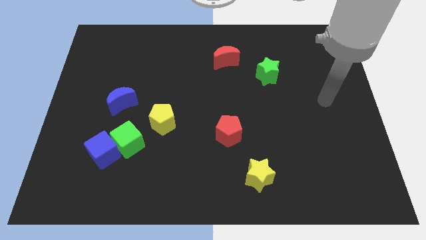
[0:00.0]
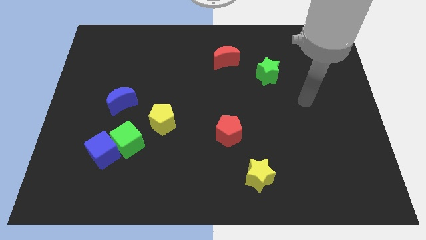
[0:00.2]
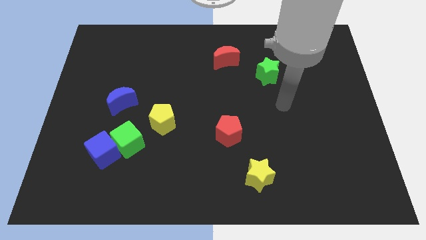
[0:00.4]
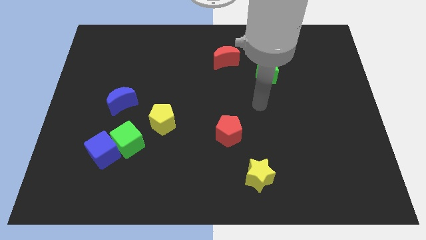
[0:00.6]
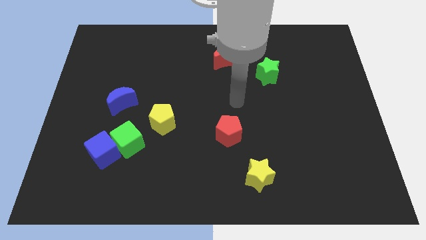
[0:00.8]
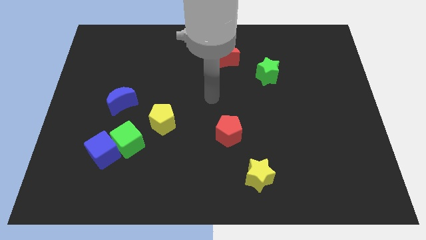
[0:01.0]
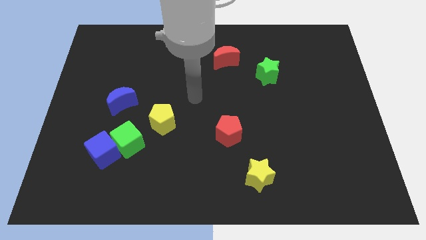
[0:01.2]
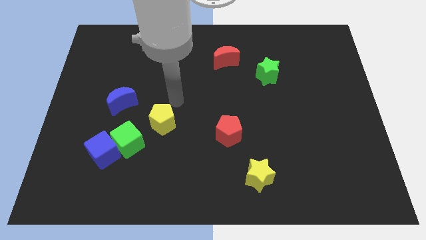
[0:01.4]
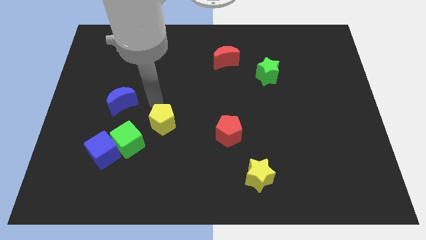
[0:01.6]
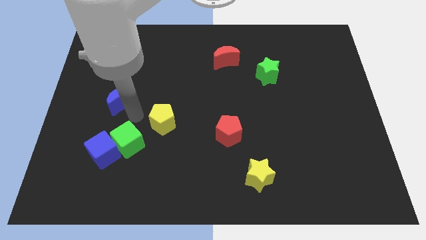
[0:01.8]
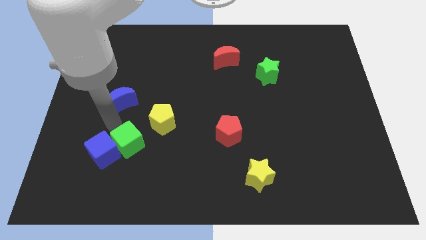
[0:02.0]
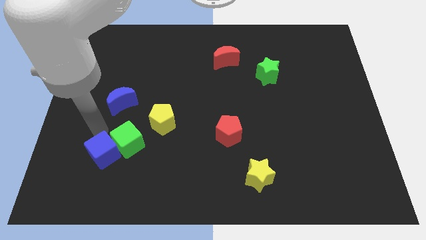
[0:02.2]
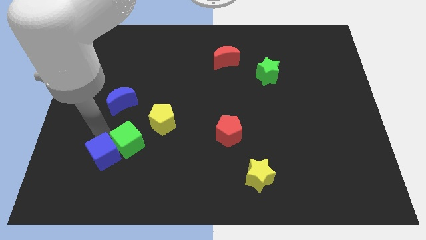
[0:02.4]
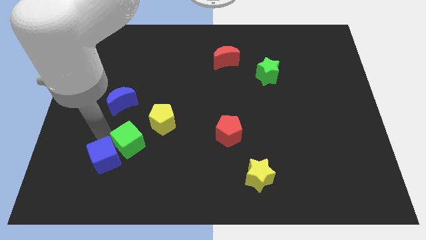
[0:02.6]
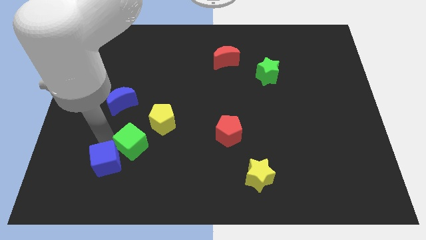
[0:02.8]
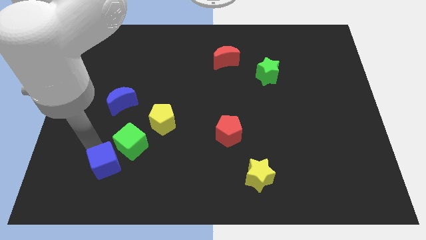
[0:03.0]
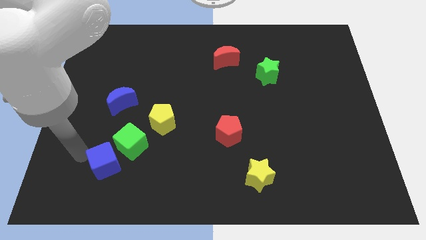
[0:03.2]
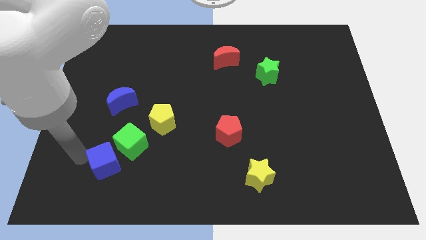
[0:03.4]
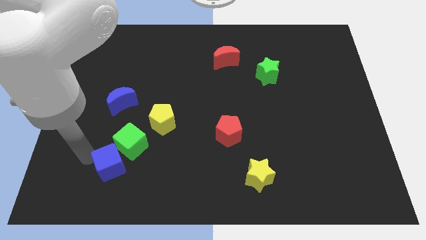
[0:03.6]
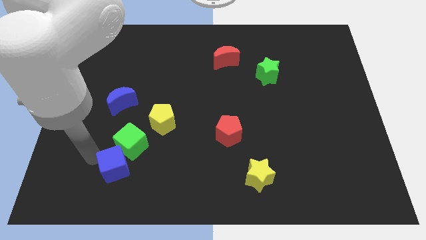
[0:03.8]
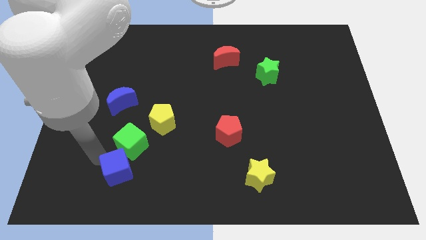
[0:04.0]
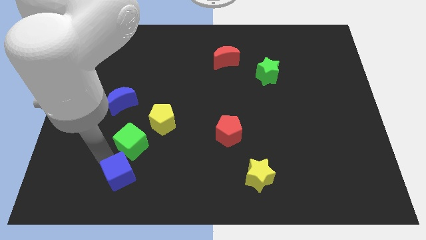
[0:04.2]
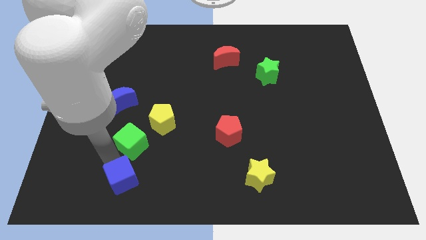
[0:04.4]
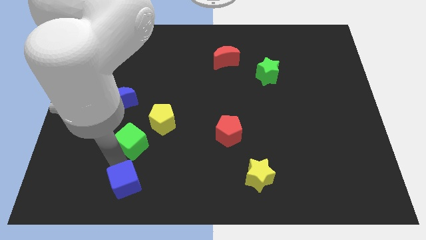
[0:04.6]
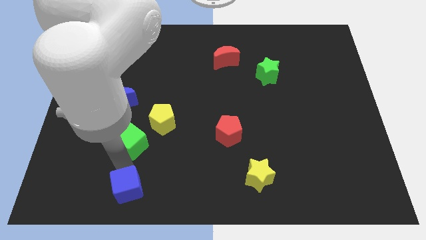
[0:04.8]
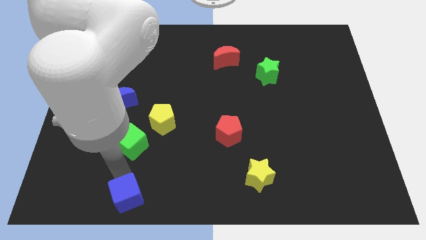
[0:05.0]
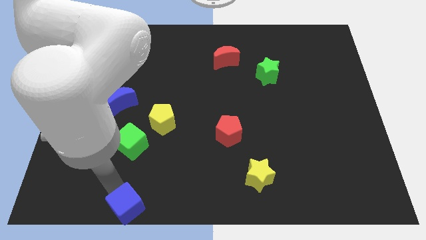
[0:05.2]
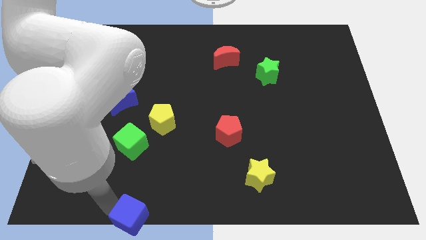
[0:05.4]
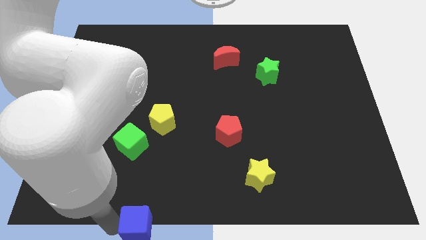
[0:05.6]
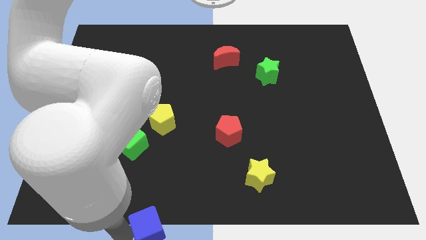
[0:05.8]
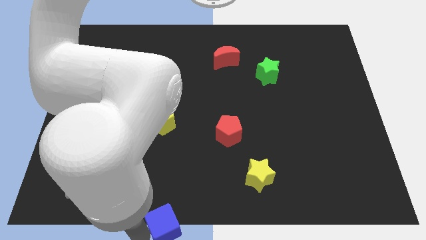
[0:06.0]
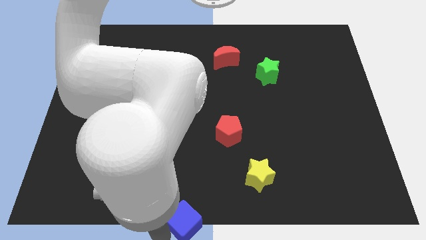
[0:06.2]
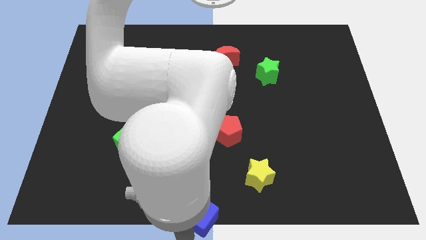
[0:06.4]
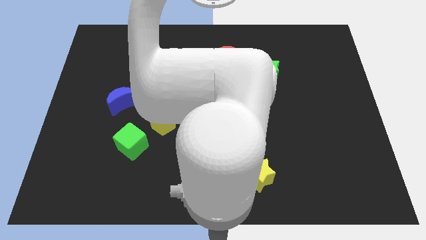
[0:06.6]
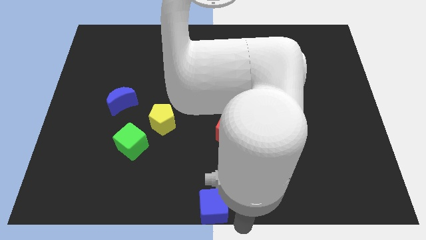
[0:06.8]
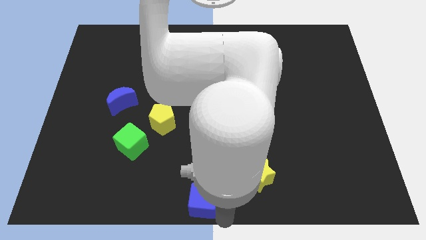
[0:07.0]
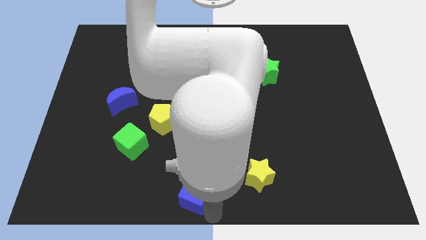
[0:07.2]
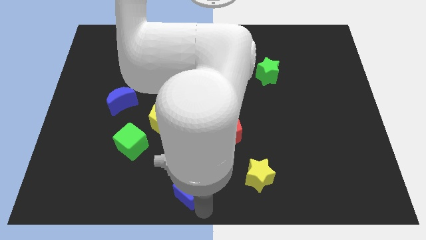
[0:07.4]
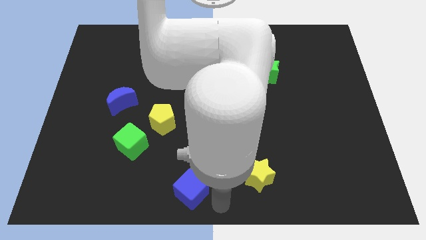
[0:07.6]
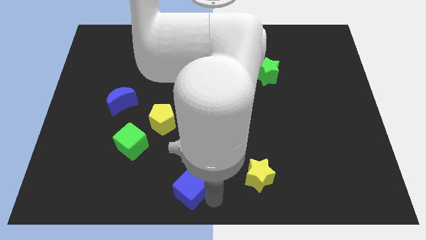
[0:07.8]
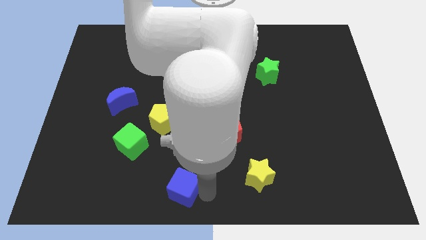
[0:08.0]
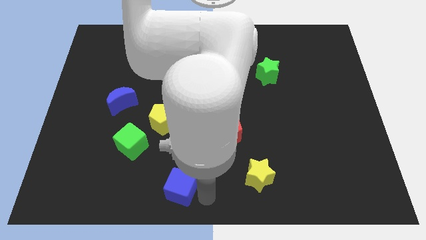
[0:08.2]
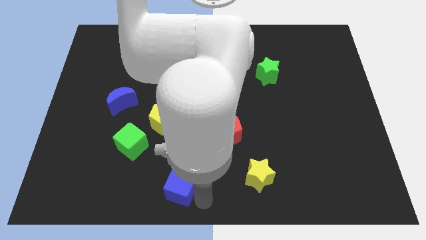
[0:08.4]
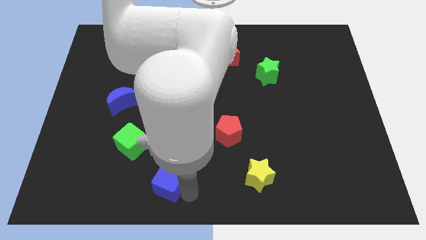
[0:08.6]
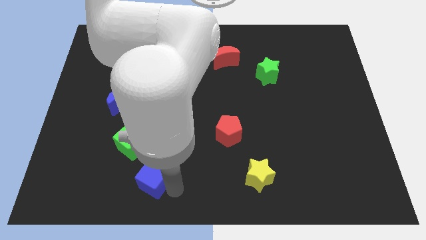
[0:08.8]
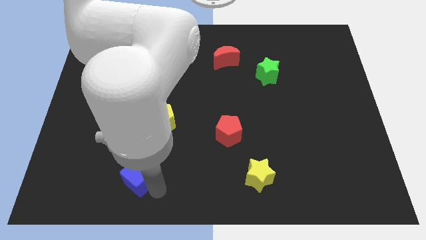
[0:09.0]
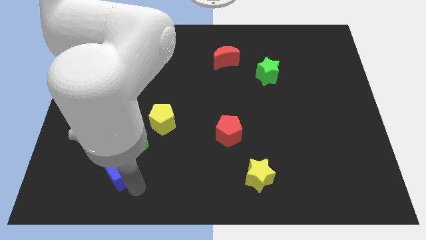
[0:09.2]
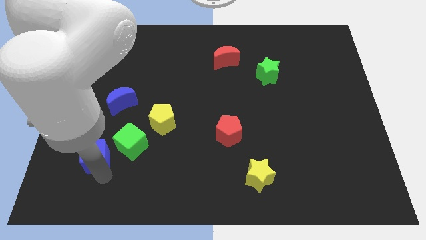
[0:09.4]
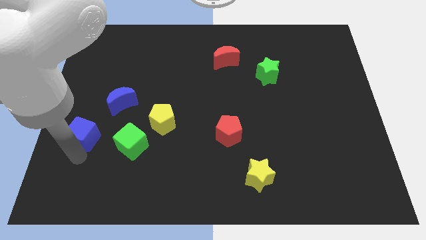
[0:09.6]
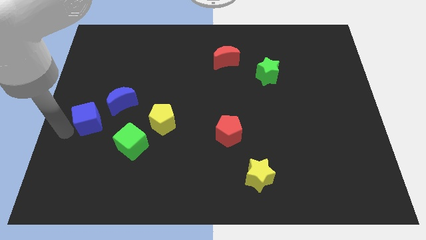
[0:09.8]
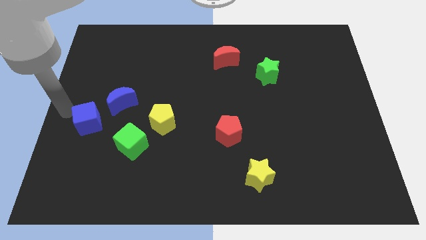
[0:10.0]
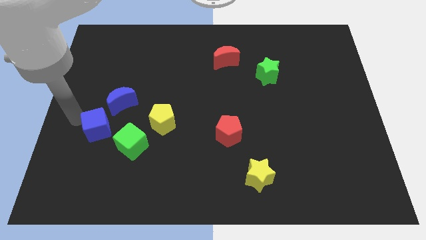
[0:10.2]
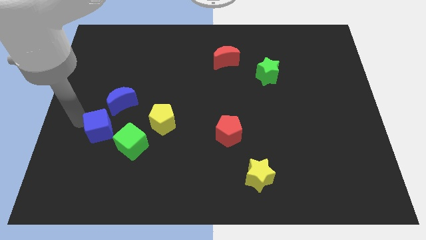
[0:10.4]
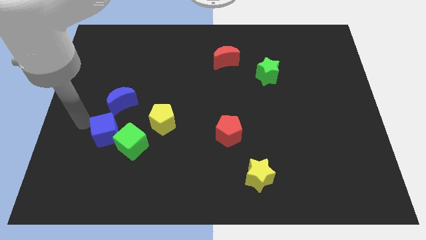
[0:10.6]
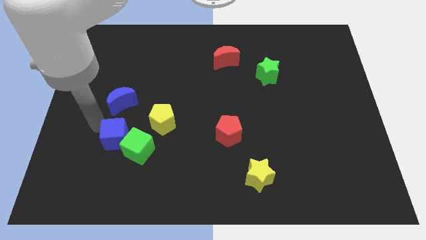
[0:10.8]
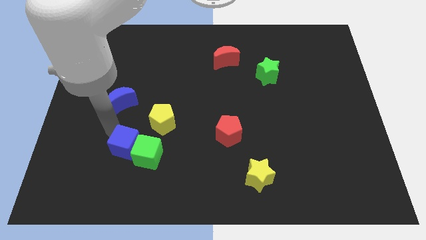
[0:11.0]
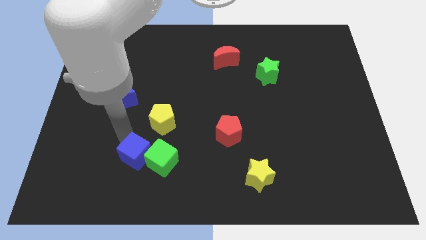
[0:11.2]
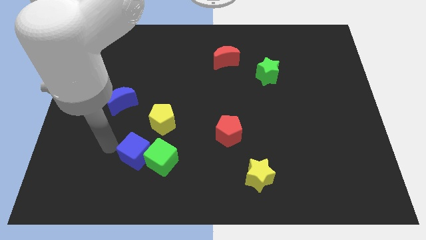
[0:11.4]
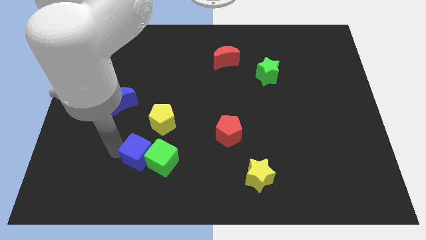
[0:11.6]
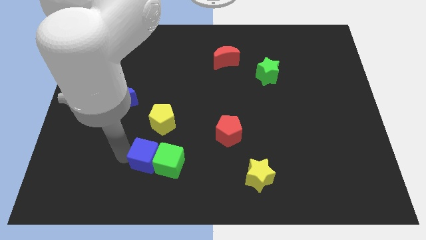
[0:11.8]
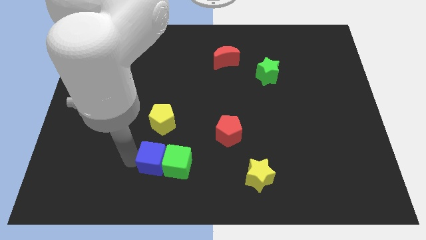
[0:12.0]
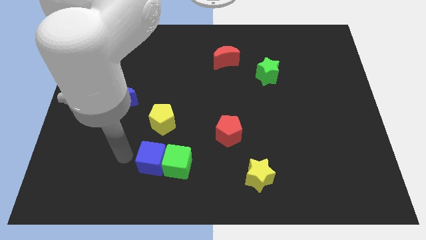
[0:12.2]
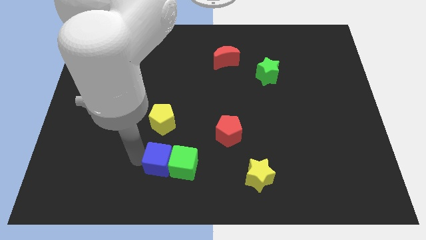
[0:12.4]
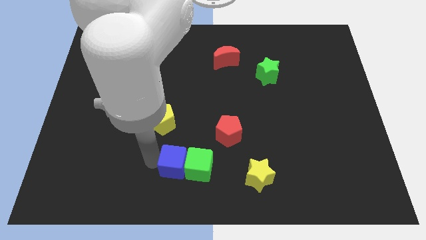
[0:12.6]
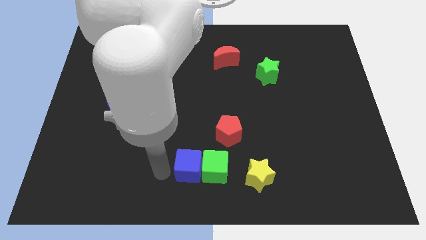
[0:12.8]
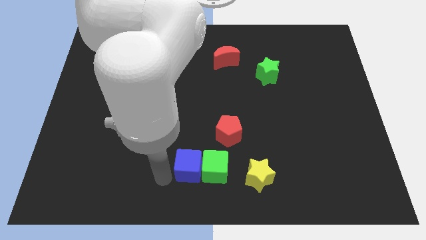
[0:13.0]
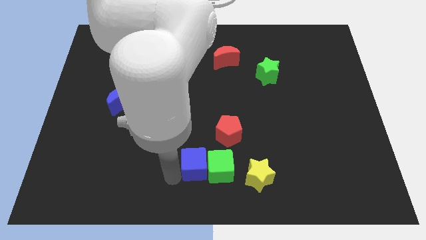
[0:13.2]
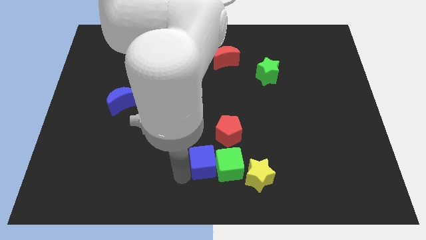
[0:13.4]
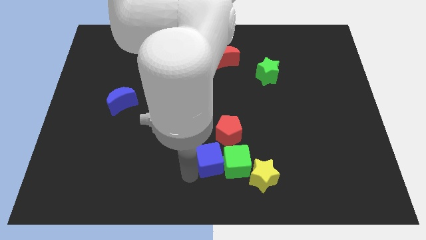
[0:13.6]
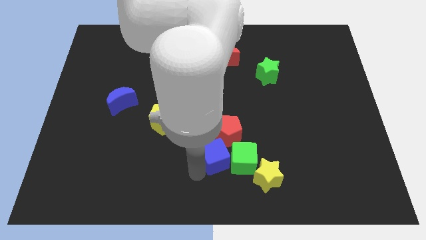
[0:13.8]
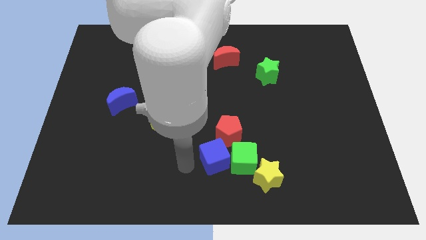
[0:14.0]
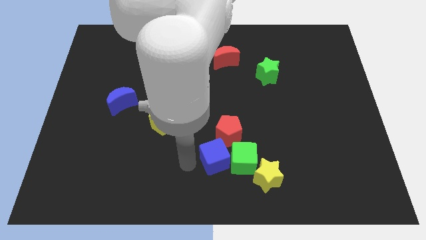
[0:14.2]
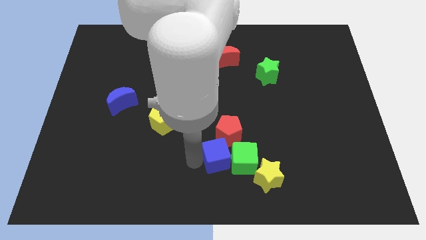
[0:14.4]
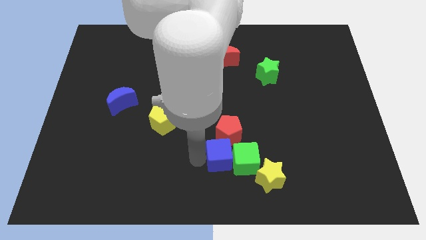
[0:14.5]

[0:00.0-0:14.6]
move the blue cube to the top left of the yellow star

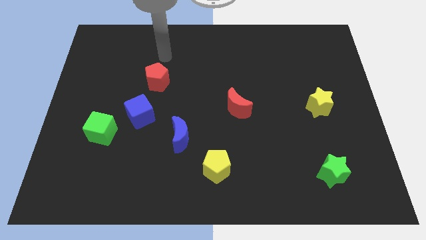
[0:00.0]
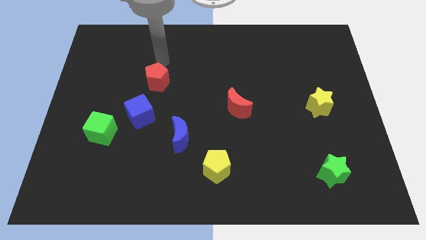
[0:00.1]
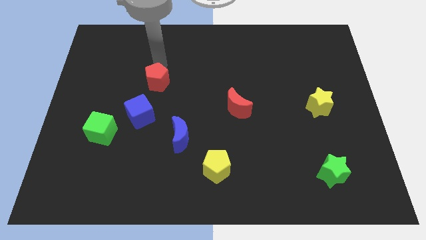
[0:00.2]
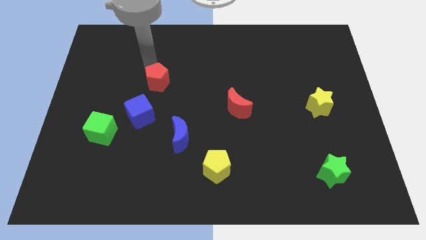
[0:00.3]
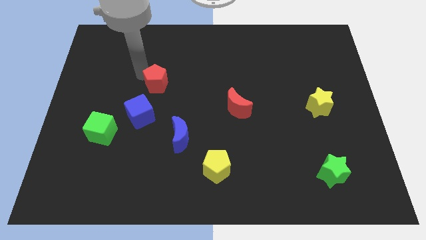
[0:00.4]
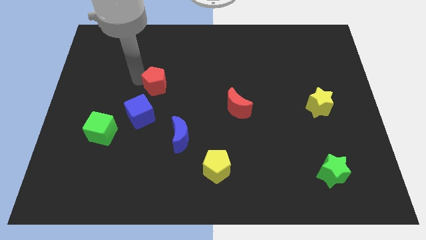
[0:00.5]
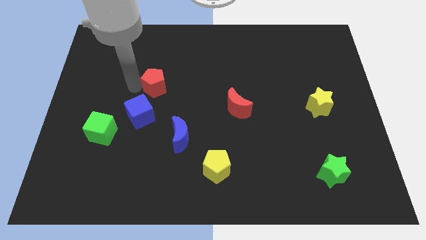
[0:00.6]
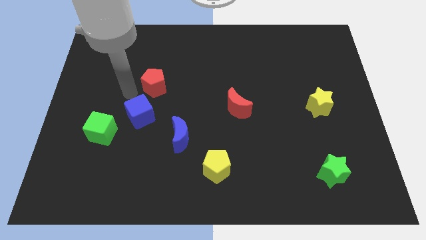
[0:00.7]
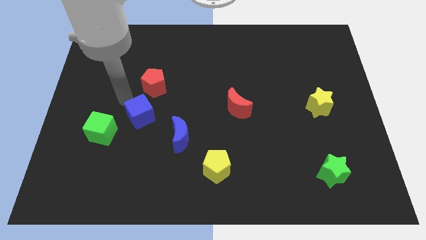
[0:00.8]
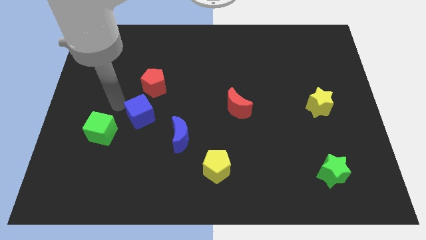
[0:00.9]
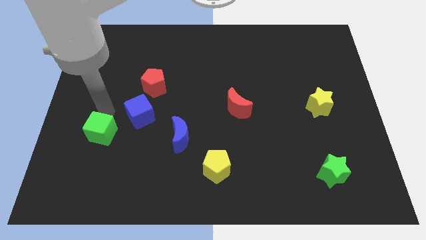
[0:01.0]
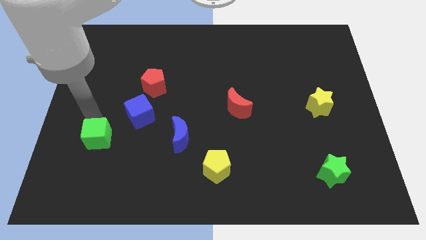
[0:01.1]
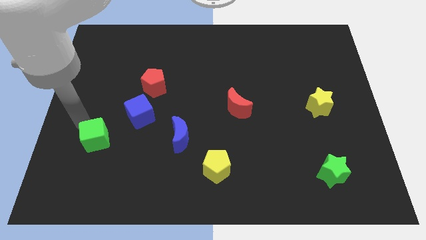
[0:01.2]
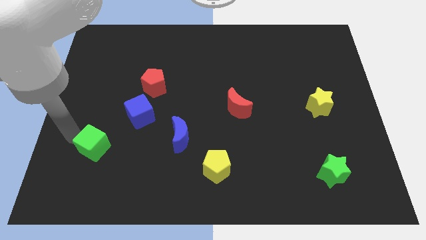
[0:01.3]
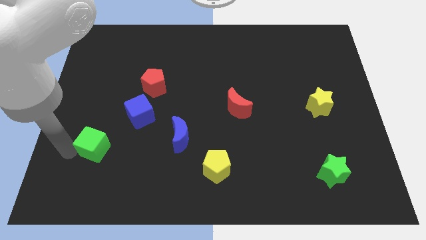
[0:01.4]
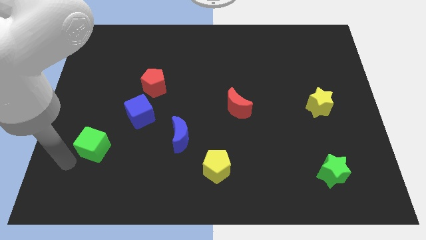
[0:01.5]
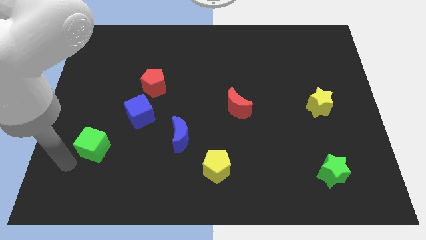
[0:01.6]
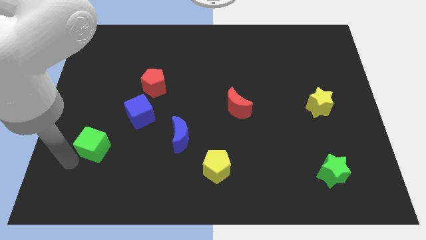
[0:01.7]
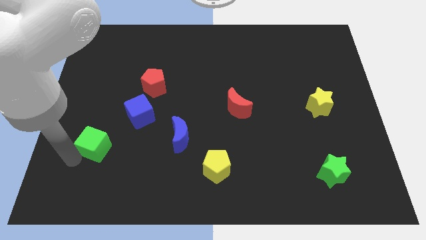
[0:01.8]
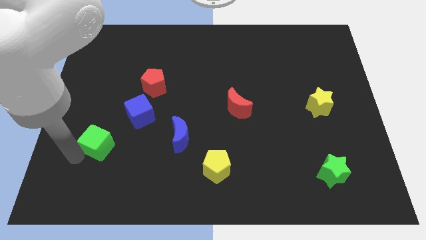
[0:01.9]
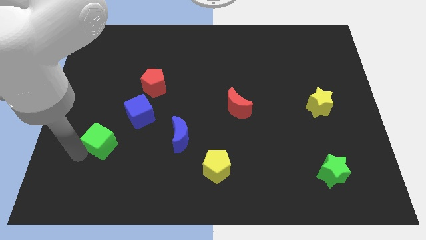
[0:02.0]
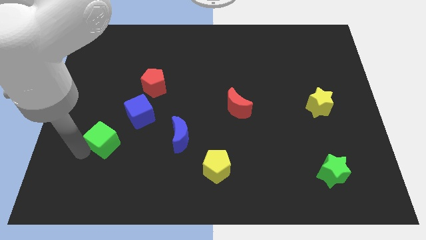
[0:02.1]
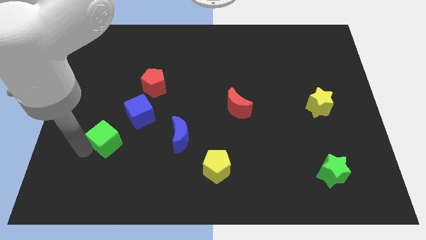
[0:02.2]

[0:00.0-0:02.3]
put the green cube to the left side of the blue moon
